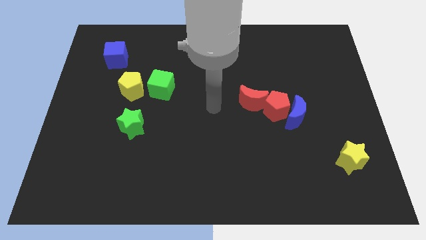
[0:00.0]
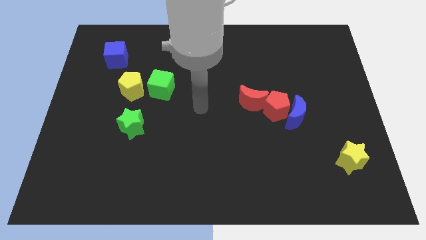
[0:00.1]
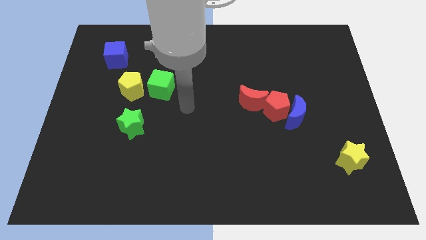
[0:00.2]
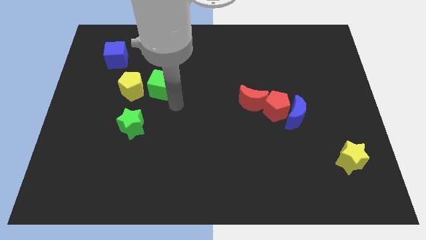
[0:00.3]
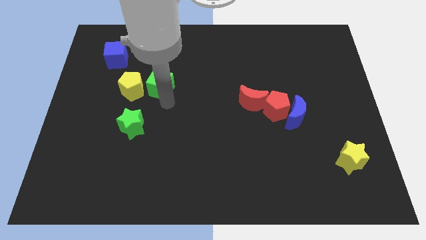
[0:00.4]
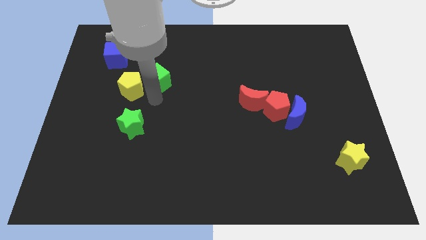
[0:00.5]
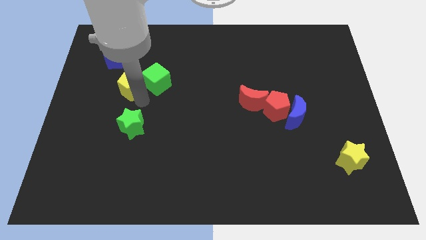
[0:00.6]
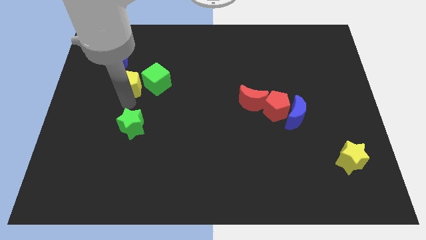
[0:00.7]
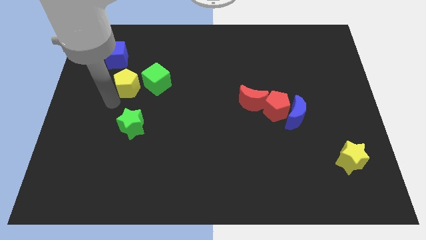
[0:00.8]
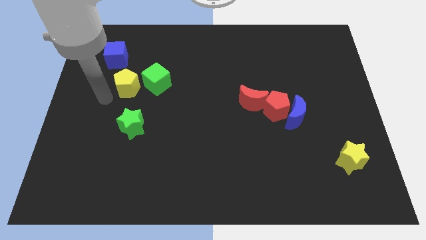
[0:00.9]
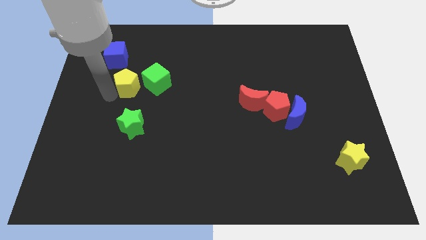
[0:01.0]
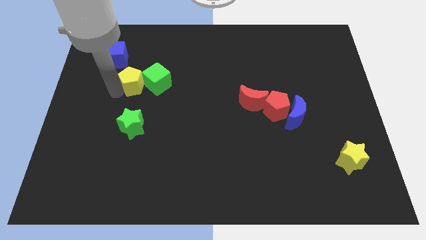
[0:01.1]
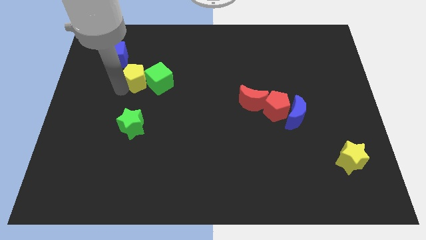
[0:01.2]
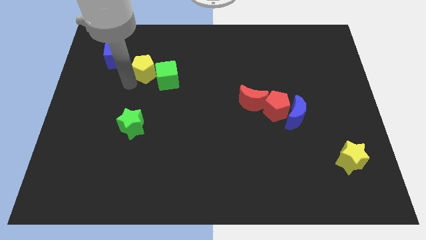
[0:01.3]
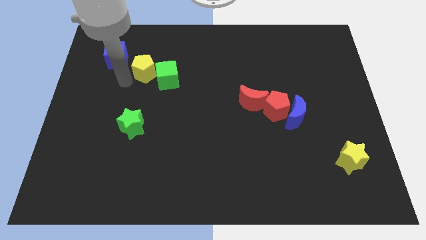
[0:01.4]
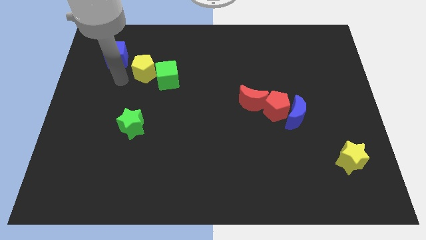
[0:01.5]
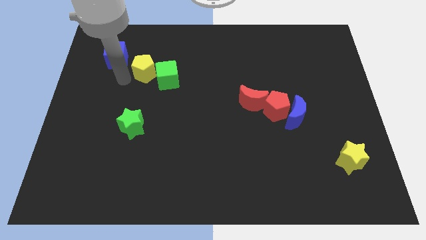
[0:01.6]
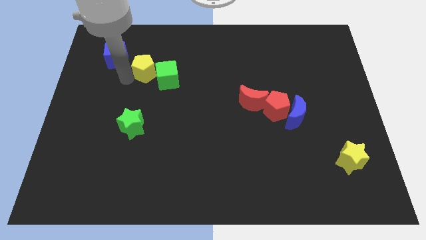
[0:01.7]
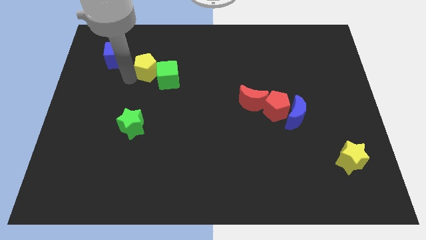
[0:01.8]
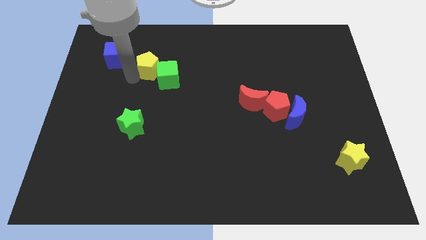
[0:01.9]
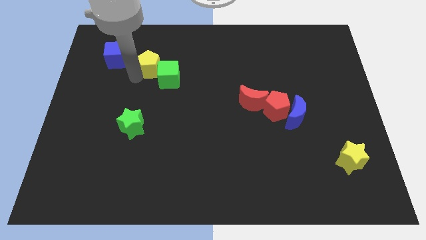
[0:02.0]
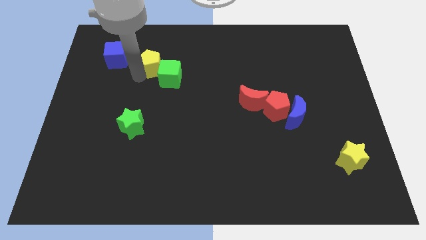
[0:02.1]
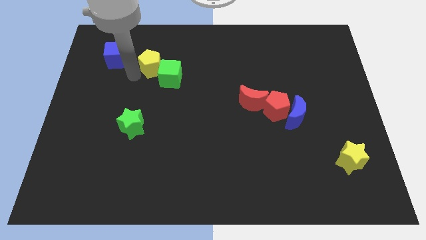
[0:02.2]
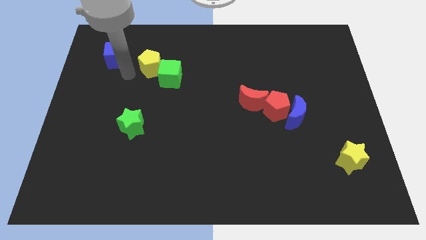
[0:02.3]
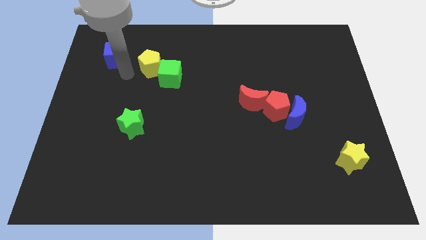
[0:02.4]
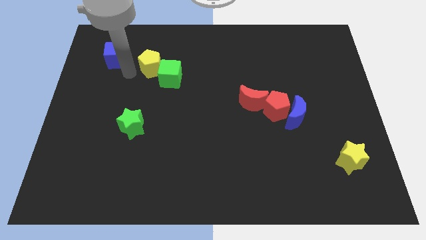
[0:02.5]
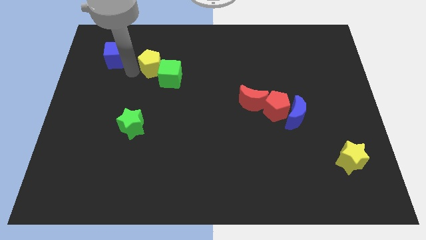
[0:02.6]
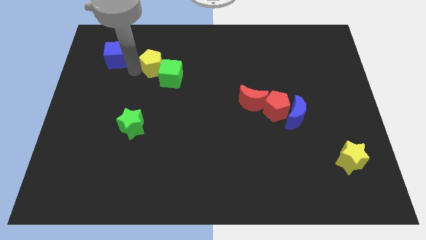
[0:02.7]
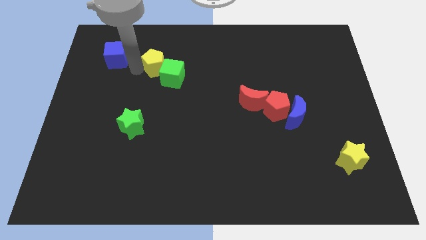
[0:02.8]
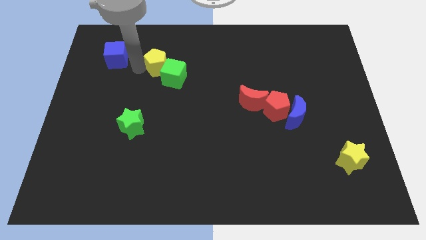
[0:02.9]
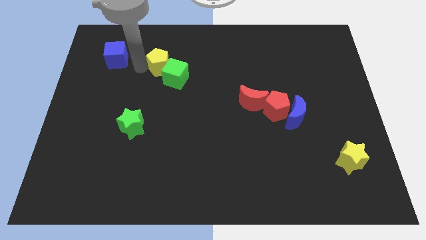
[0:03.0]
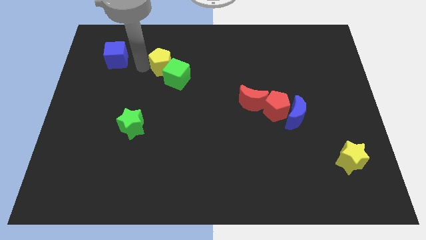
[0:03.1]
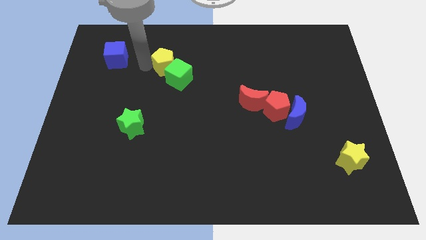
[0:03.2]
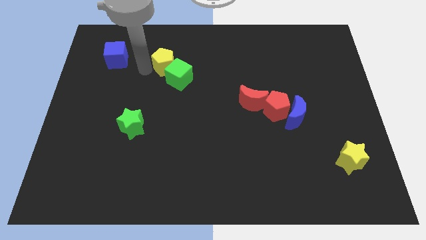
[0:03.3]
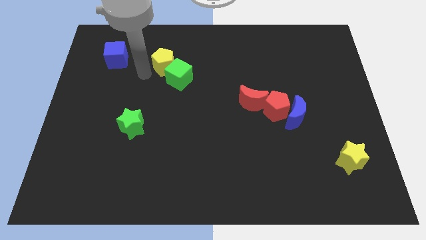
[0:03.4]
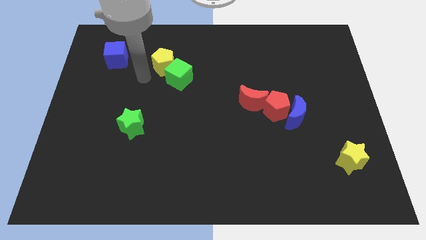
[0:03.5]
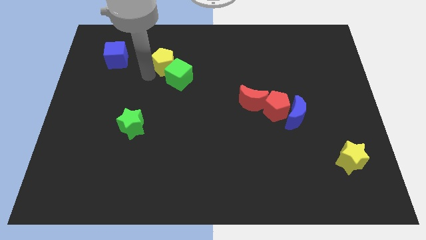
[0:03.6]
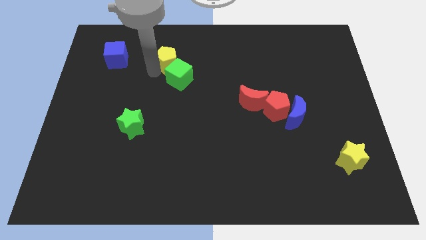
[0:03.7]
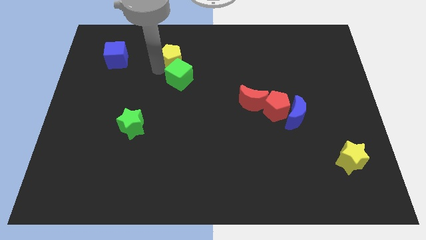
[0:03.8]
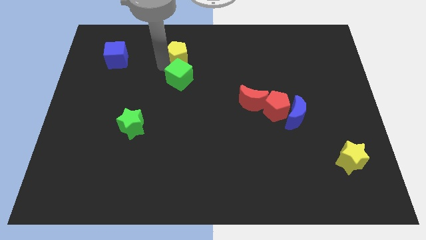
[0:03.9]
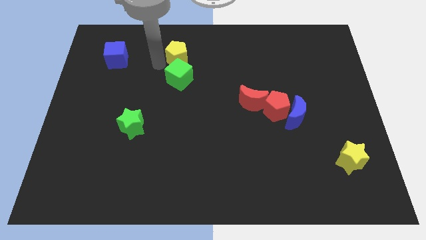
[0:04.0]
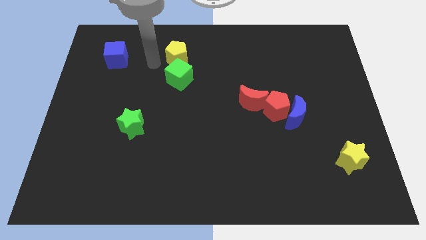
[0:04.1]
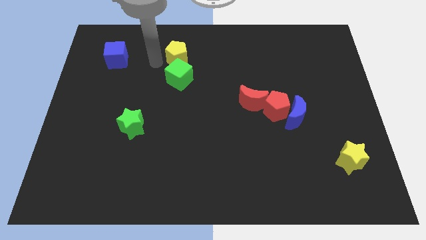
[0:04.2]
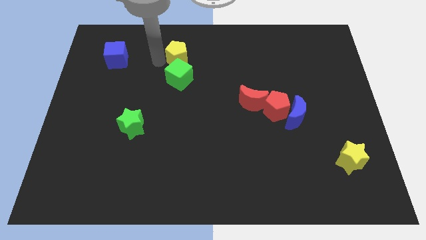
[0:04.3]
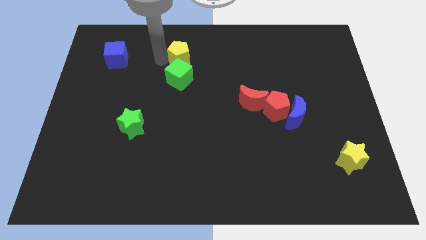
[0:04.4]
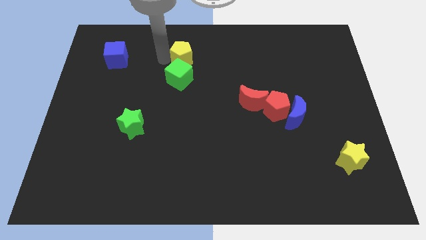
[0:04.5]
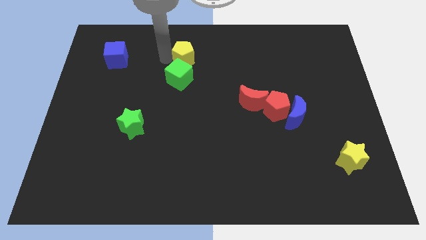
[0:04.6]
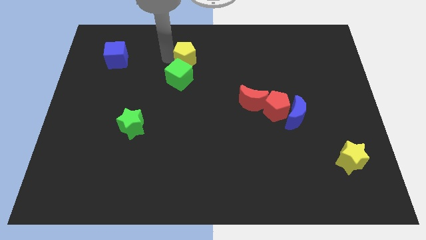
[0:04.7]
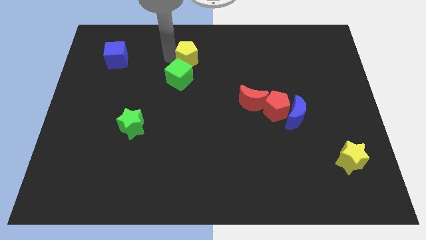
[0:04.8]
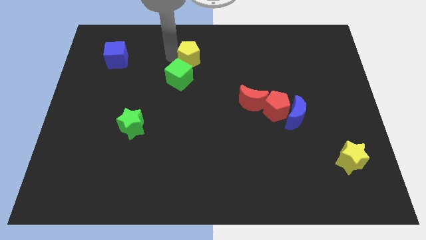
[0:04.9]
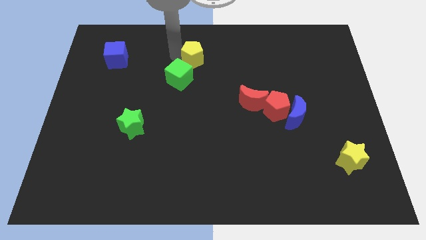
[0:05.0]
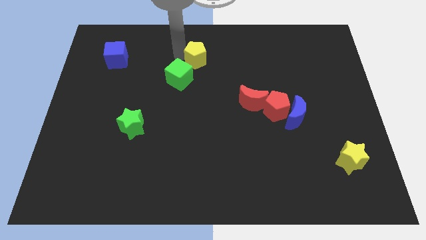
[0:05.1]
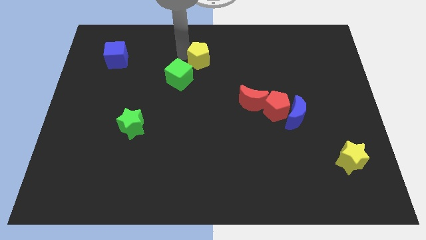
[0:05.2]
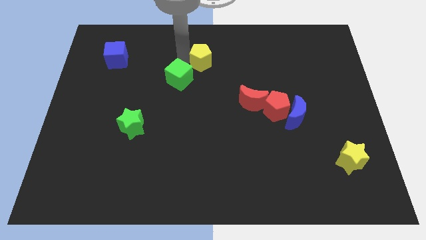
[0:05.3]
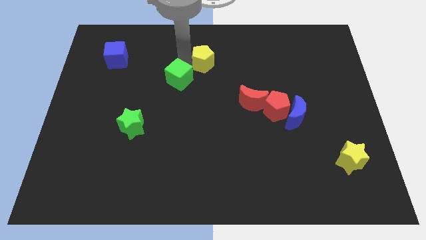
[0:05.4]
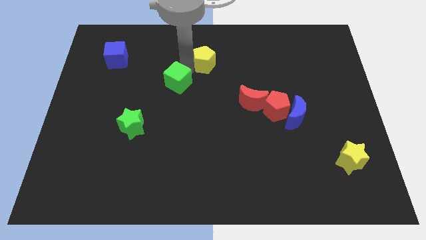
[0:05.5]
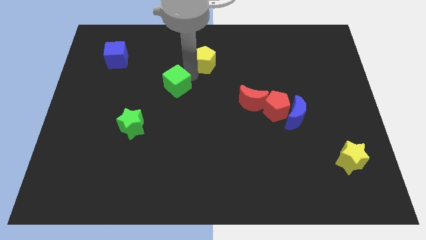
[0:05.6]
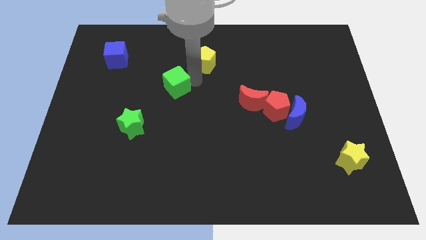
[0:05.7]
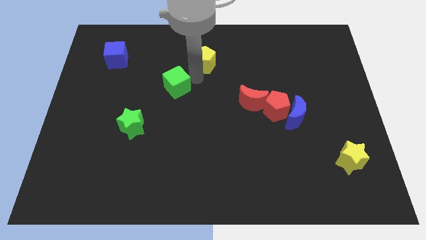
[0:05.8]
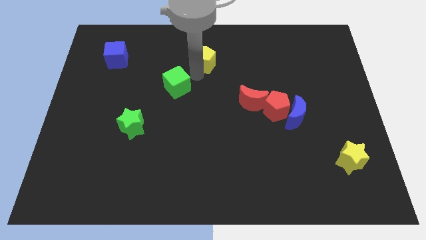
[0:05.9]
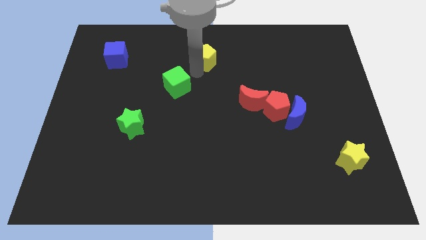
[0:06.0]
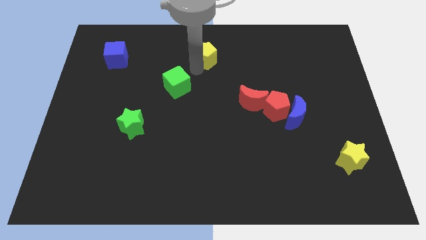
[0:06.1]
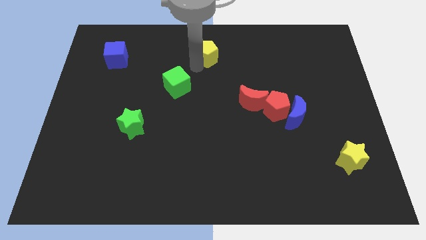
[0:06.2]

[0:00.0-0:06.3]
slide the yellow pentagon to the top
